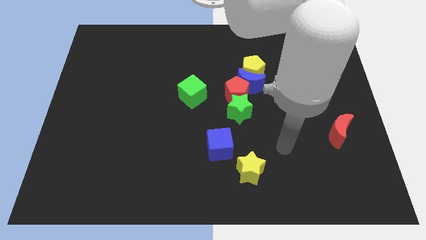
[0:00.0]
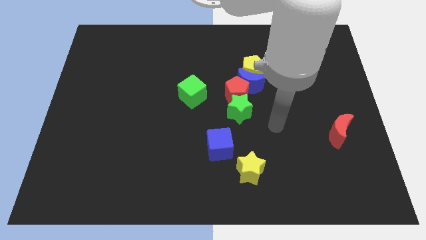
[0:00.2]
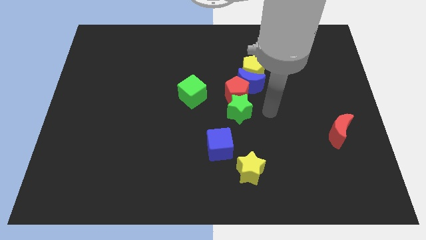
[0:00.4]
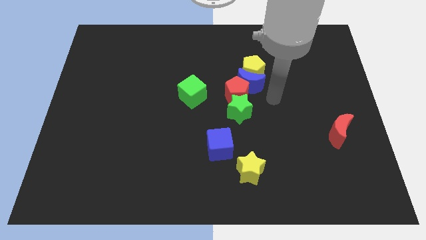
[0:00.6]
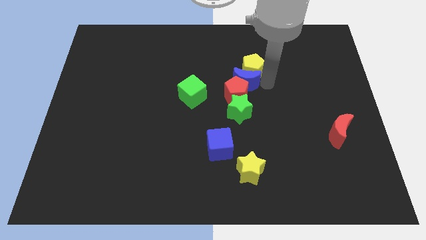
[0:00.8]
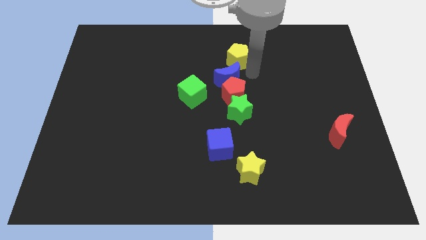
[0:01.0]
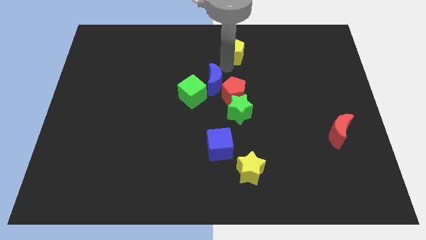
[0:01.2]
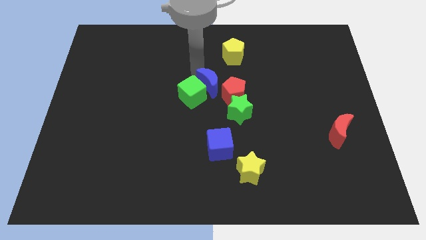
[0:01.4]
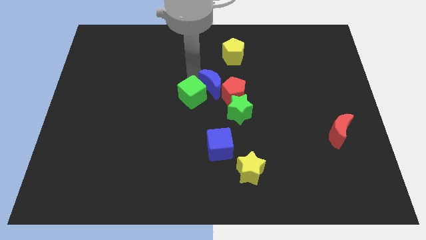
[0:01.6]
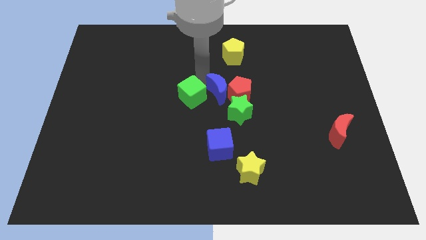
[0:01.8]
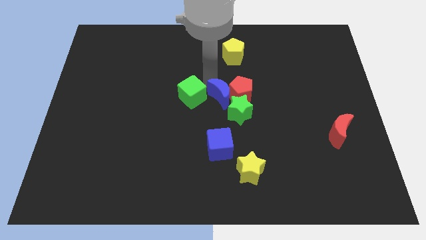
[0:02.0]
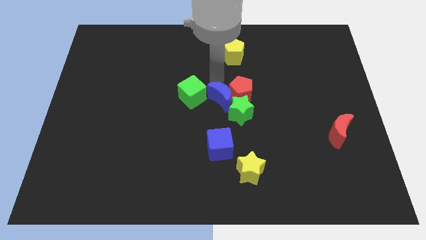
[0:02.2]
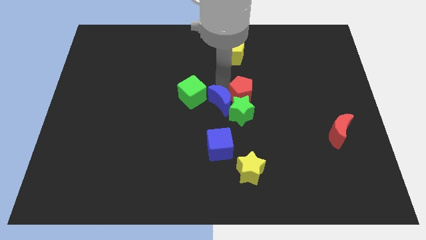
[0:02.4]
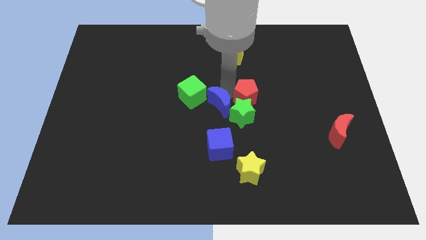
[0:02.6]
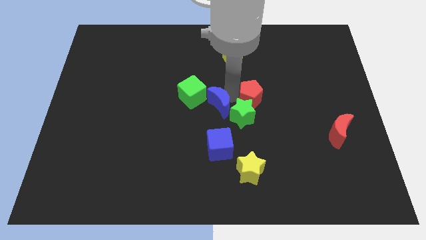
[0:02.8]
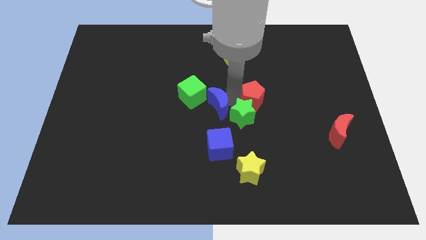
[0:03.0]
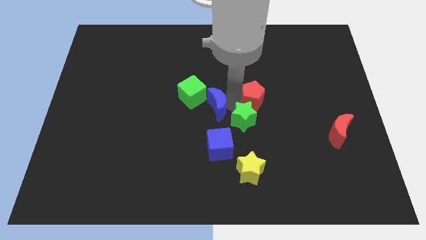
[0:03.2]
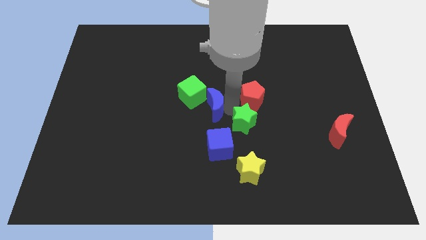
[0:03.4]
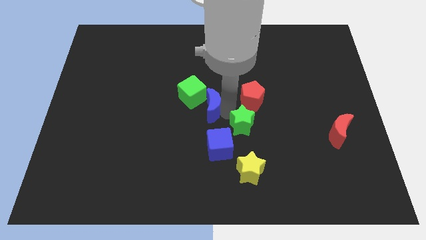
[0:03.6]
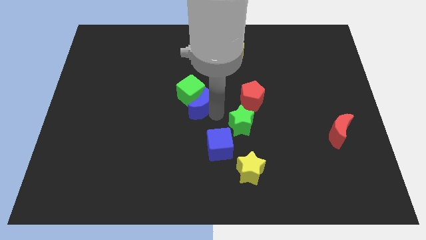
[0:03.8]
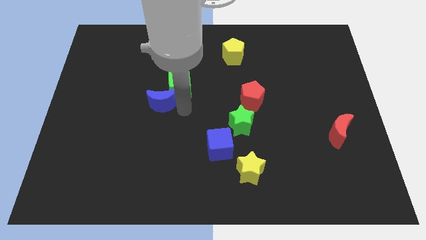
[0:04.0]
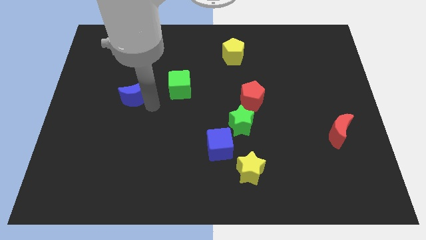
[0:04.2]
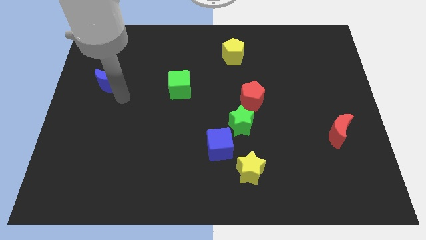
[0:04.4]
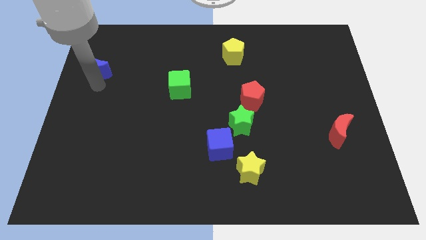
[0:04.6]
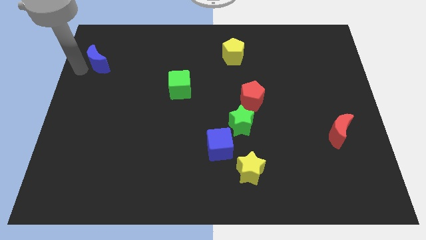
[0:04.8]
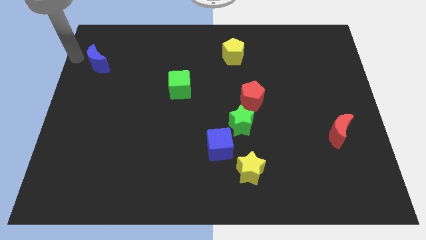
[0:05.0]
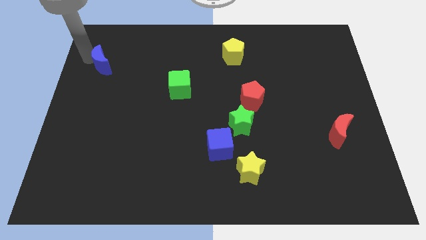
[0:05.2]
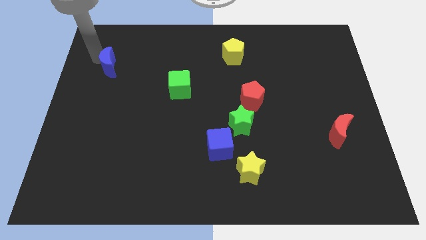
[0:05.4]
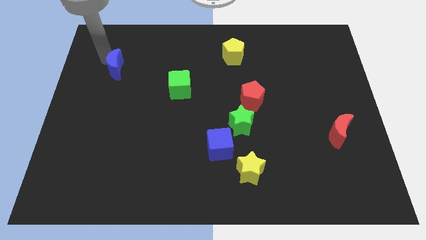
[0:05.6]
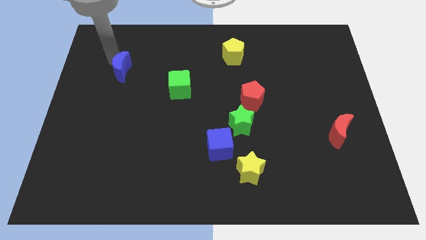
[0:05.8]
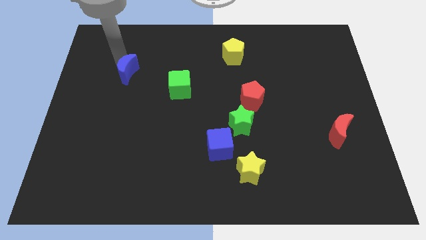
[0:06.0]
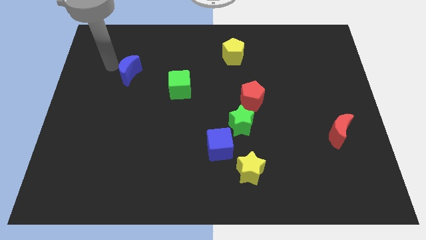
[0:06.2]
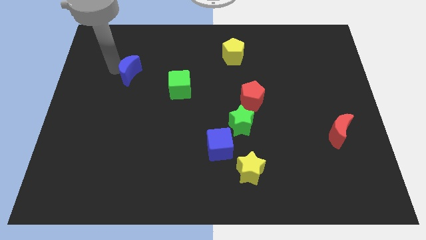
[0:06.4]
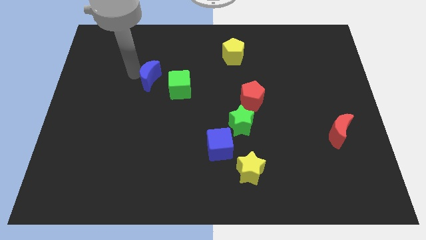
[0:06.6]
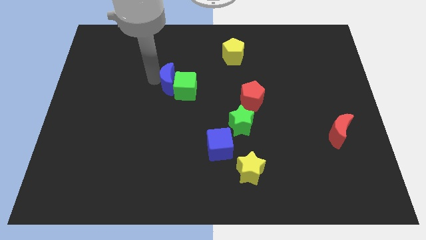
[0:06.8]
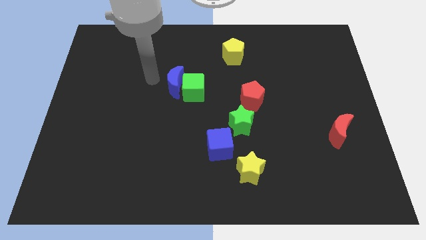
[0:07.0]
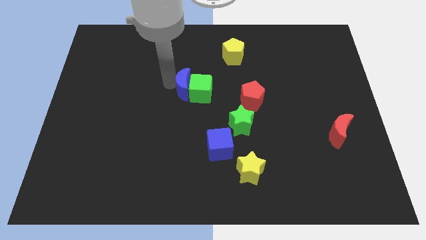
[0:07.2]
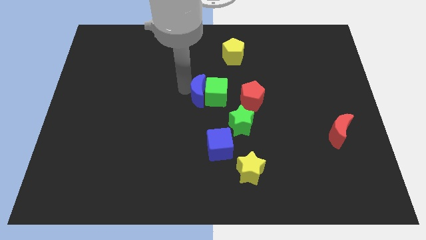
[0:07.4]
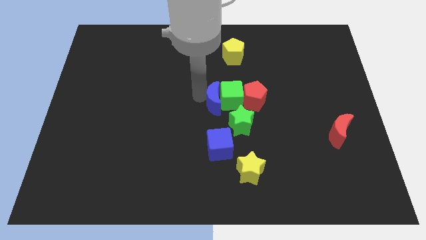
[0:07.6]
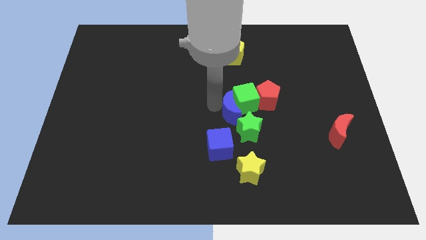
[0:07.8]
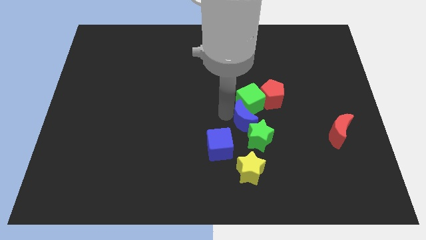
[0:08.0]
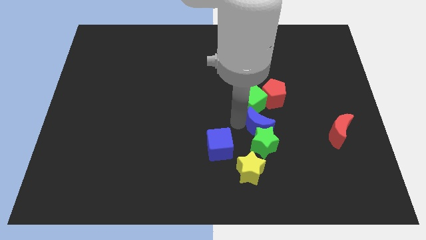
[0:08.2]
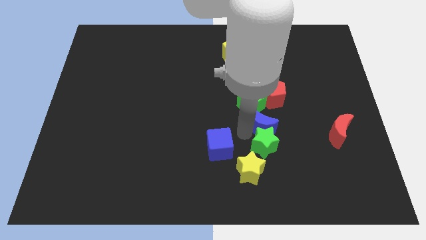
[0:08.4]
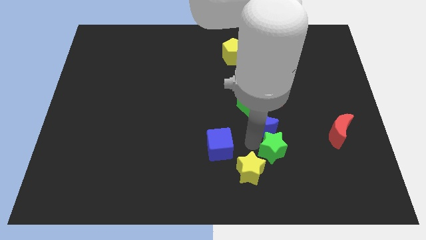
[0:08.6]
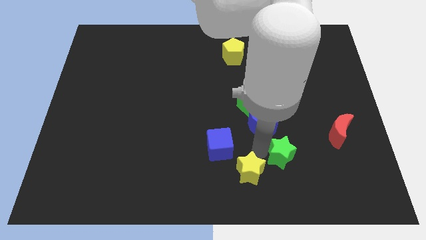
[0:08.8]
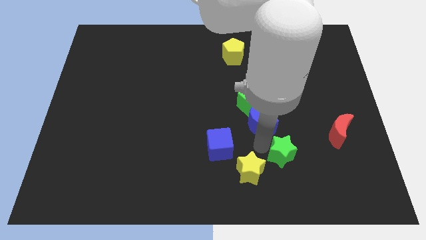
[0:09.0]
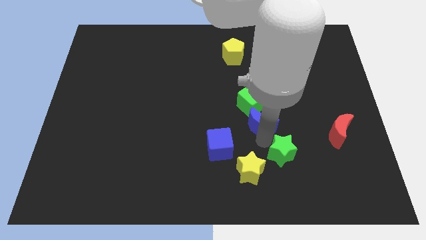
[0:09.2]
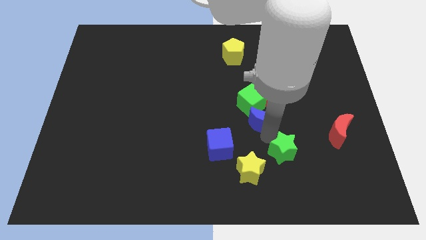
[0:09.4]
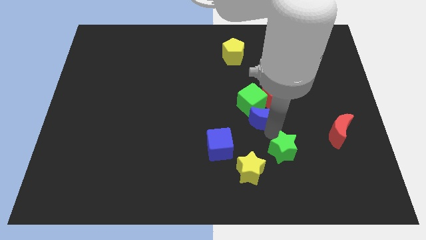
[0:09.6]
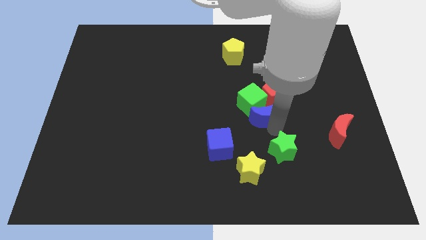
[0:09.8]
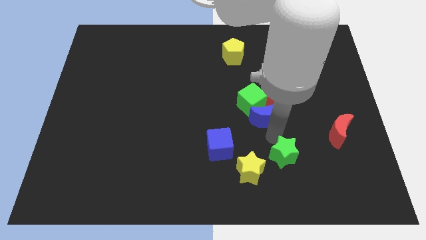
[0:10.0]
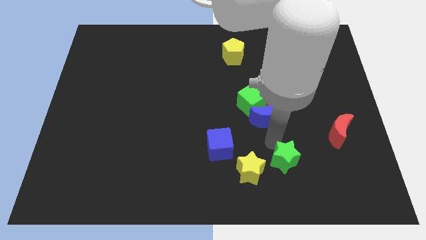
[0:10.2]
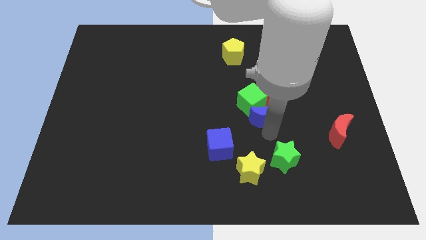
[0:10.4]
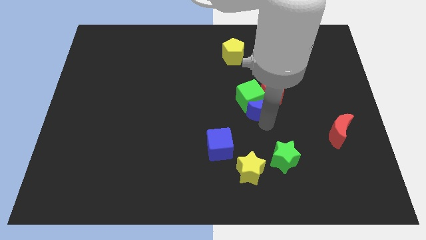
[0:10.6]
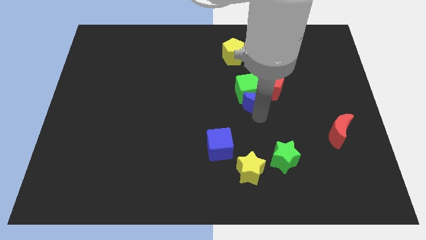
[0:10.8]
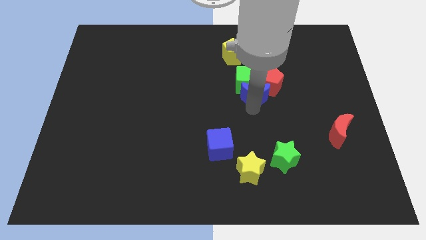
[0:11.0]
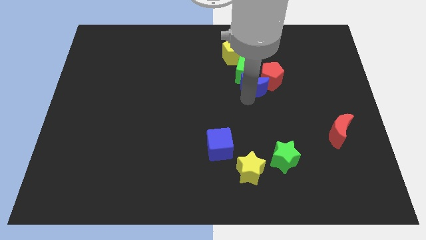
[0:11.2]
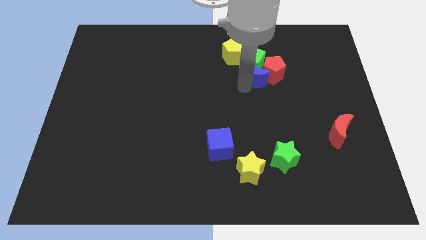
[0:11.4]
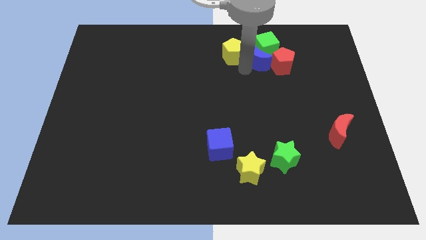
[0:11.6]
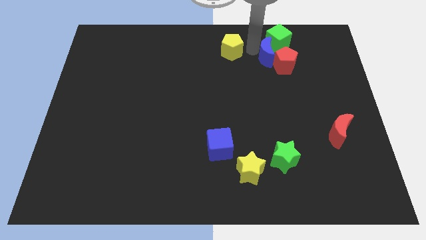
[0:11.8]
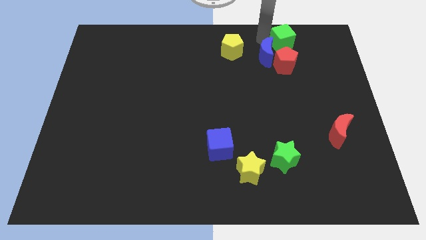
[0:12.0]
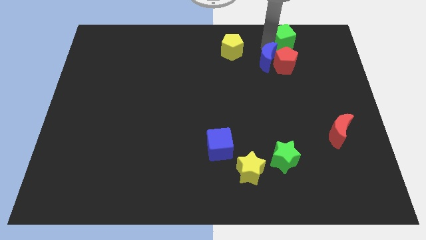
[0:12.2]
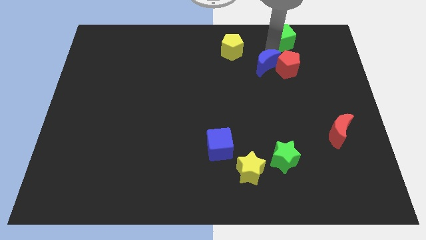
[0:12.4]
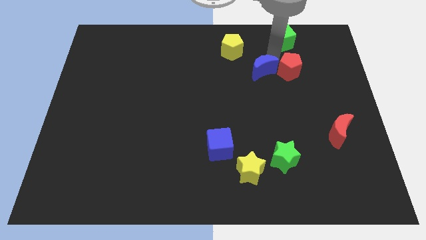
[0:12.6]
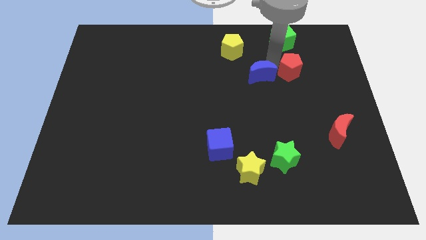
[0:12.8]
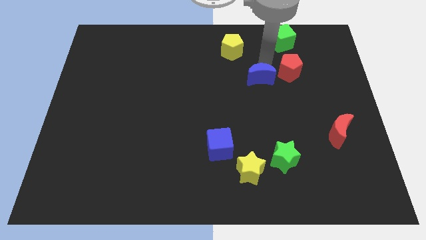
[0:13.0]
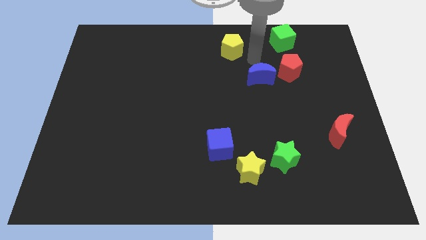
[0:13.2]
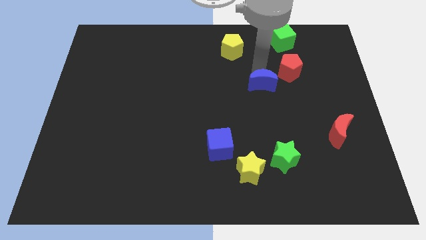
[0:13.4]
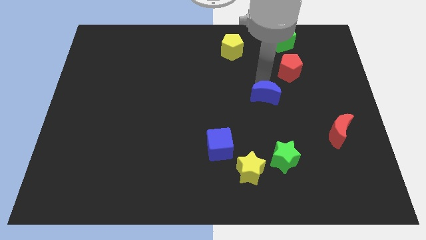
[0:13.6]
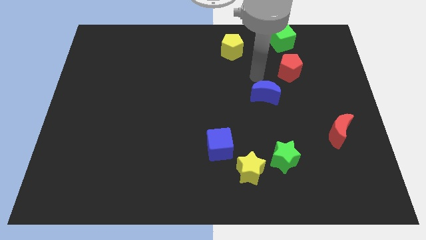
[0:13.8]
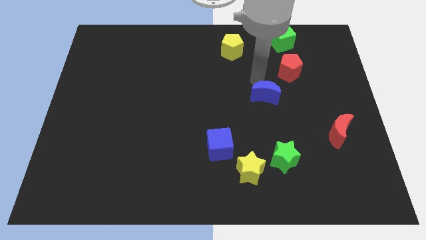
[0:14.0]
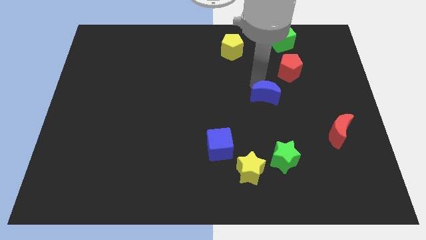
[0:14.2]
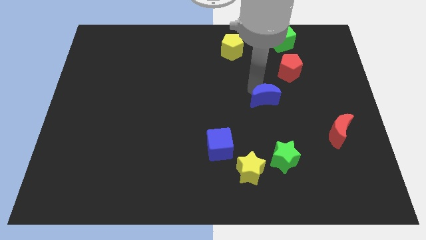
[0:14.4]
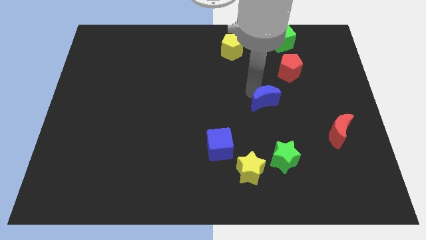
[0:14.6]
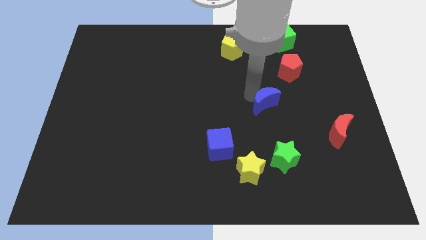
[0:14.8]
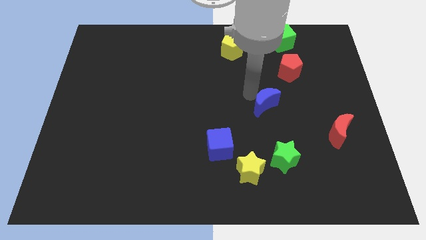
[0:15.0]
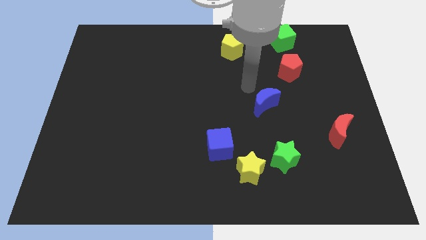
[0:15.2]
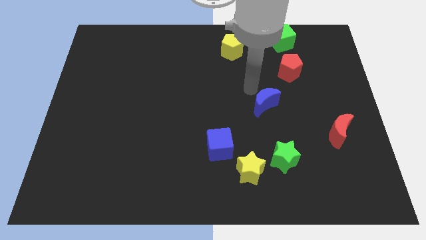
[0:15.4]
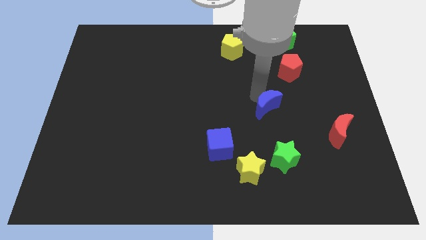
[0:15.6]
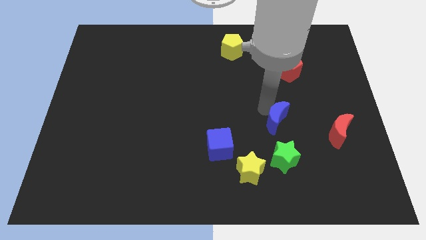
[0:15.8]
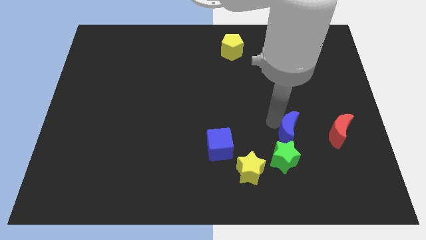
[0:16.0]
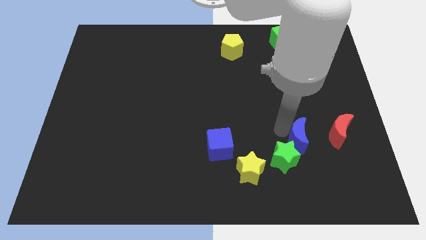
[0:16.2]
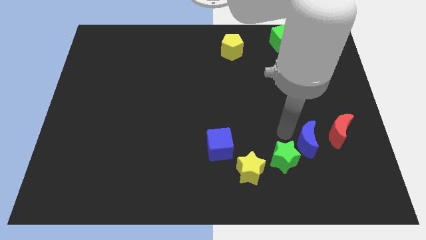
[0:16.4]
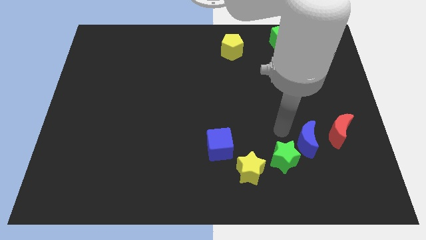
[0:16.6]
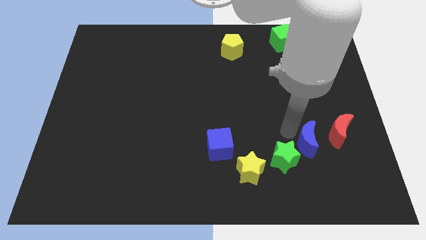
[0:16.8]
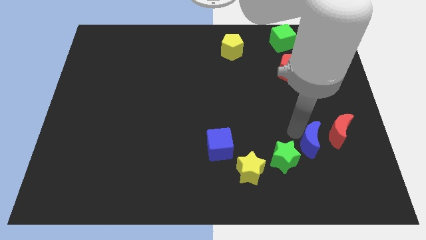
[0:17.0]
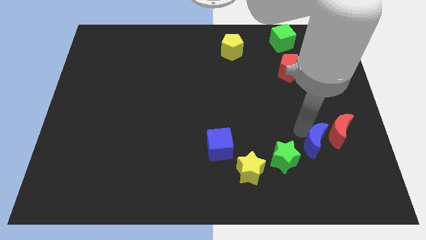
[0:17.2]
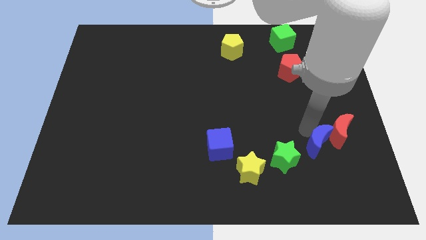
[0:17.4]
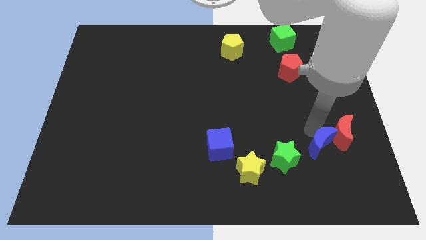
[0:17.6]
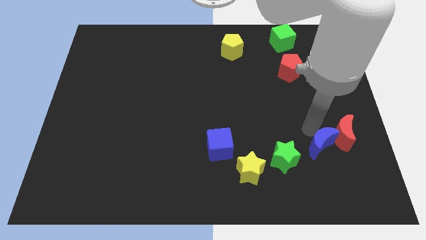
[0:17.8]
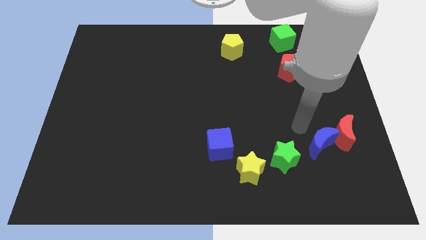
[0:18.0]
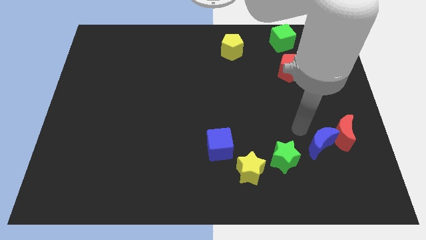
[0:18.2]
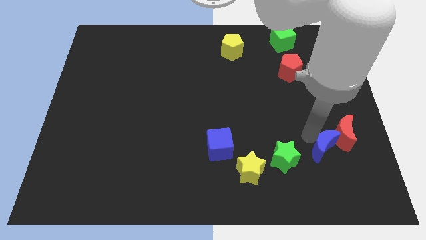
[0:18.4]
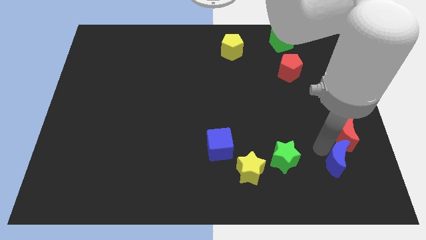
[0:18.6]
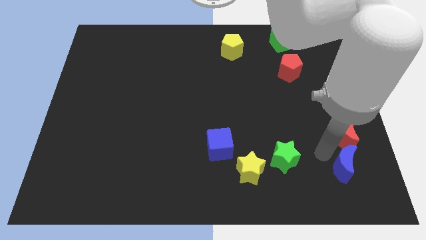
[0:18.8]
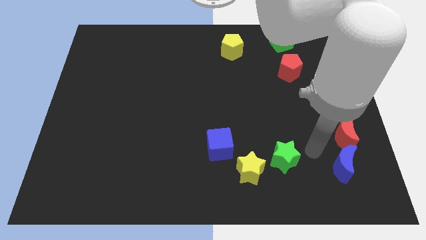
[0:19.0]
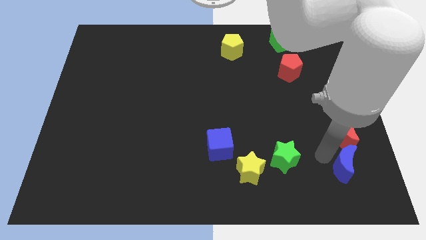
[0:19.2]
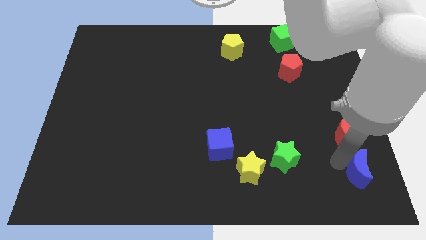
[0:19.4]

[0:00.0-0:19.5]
slide the blue moon to the lower right corner
